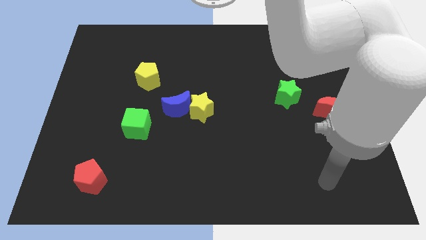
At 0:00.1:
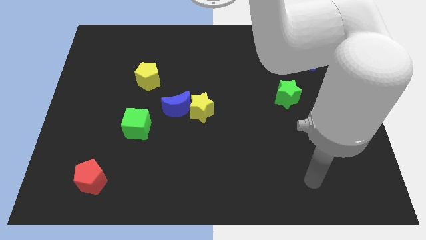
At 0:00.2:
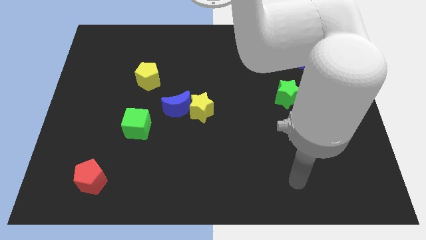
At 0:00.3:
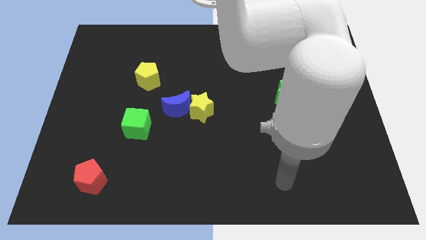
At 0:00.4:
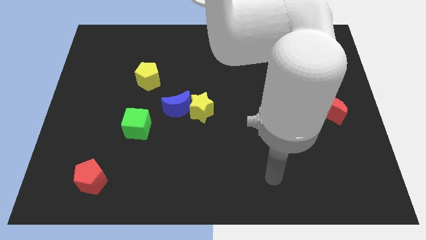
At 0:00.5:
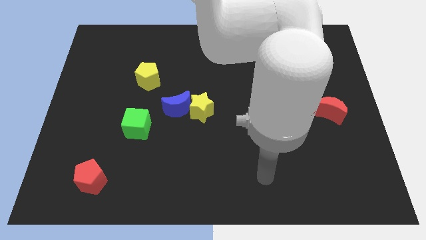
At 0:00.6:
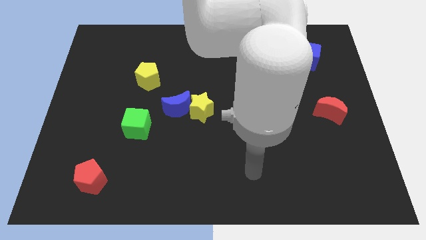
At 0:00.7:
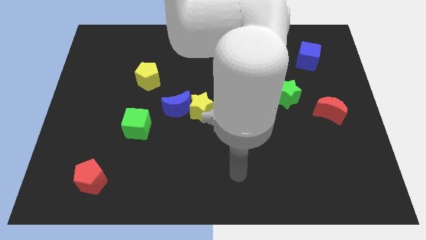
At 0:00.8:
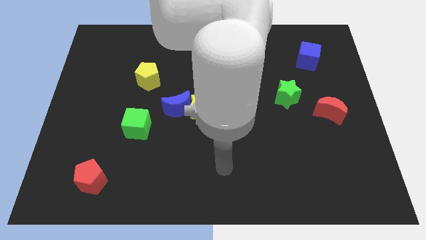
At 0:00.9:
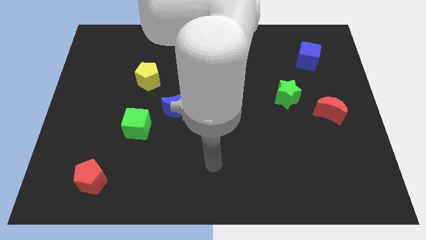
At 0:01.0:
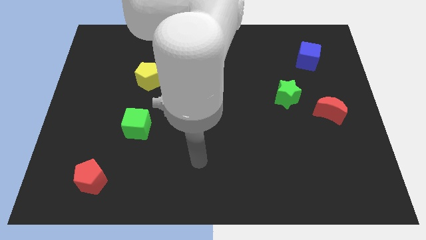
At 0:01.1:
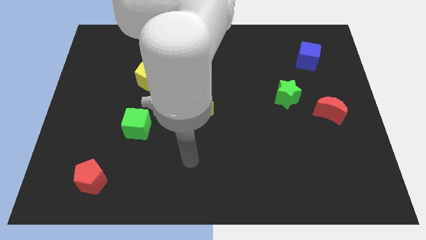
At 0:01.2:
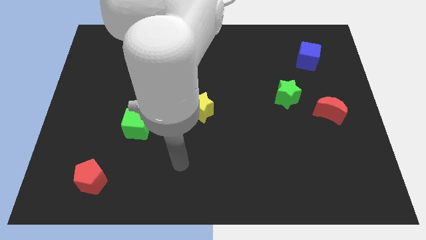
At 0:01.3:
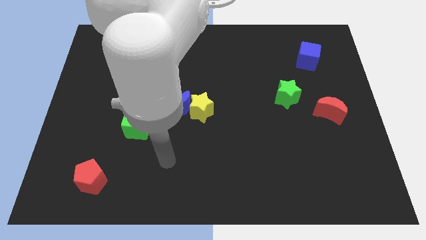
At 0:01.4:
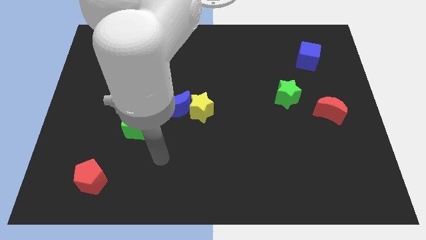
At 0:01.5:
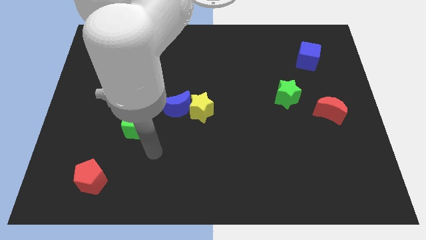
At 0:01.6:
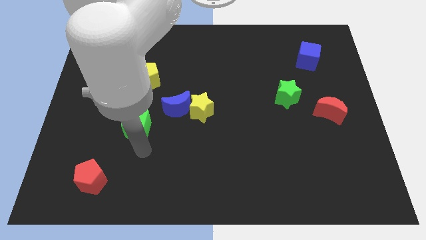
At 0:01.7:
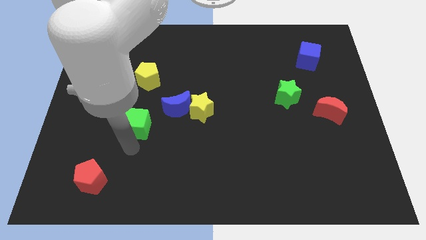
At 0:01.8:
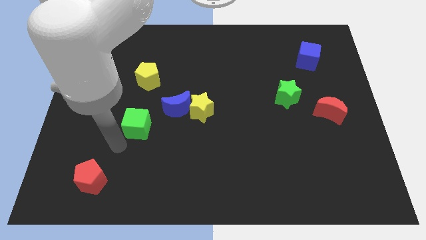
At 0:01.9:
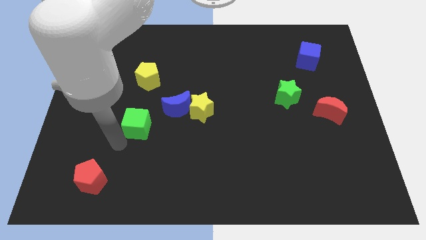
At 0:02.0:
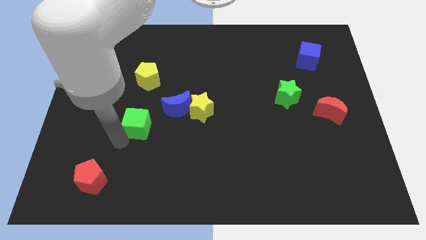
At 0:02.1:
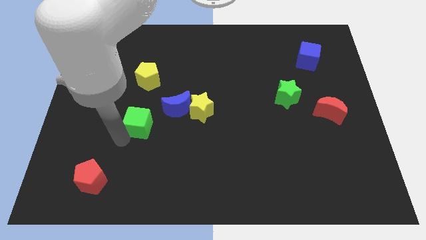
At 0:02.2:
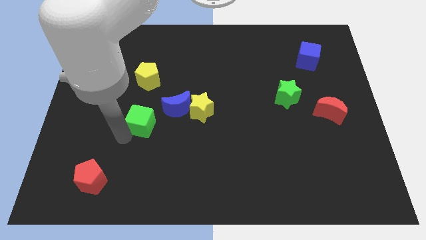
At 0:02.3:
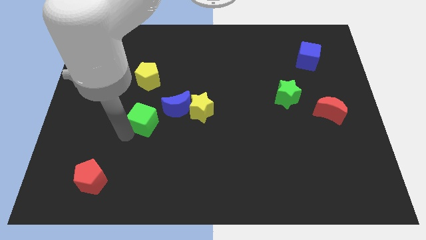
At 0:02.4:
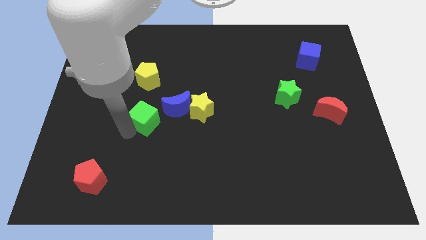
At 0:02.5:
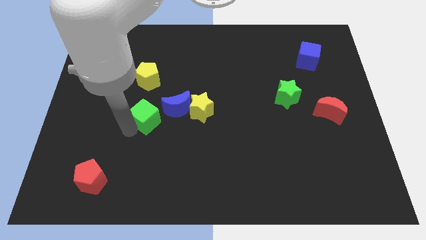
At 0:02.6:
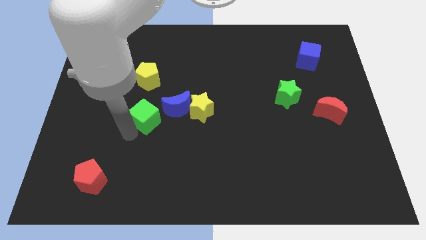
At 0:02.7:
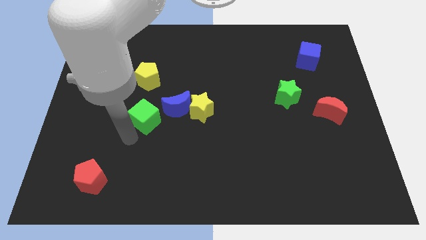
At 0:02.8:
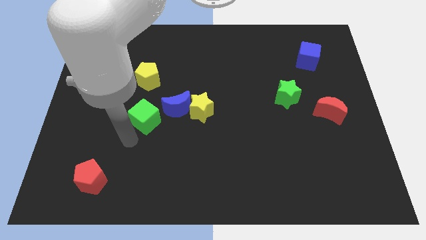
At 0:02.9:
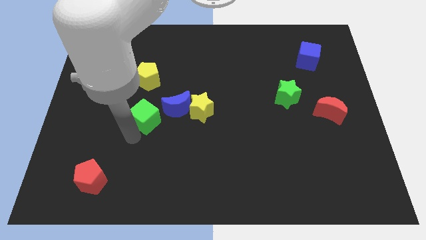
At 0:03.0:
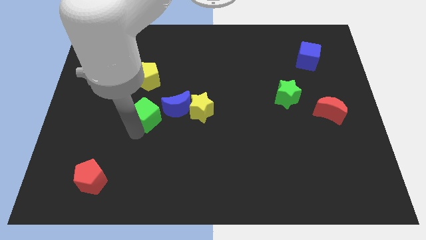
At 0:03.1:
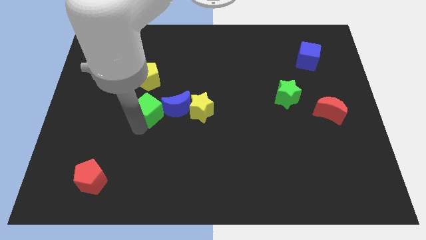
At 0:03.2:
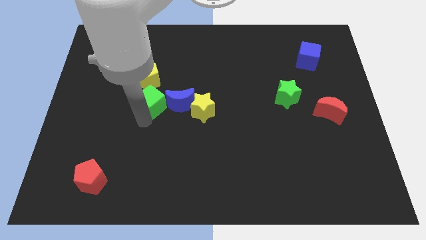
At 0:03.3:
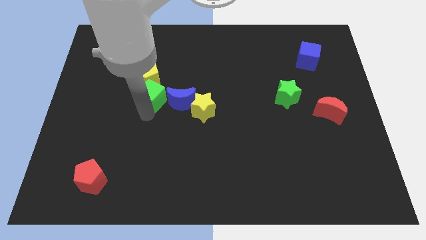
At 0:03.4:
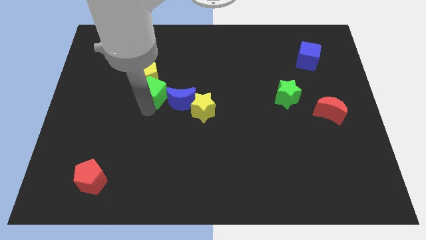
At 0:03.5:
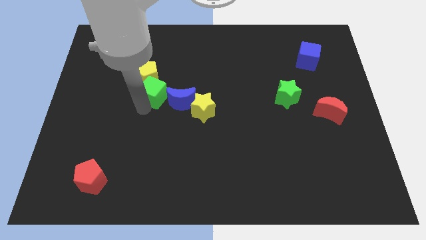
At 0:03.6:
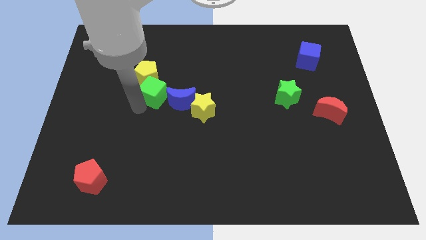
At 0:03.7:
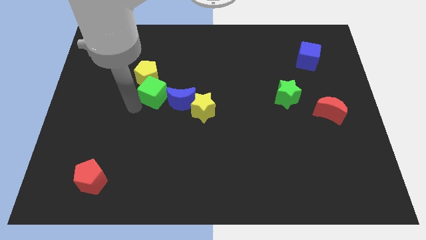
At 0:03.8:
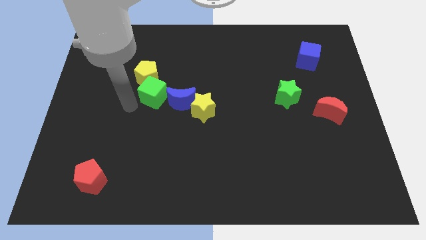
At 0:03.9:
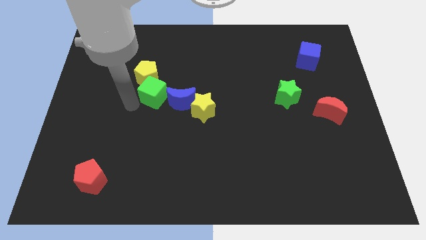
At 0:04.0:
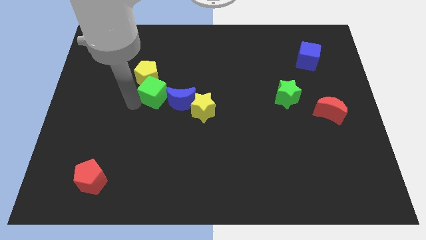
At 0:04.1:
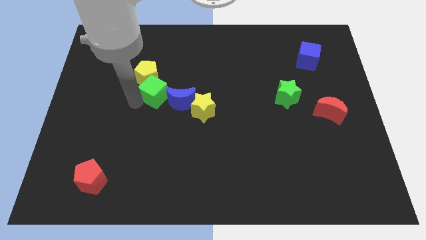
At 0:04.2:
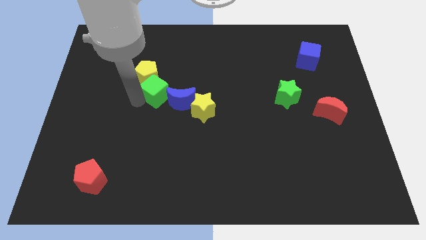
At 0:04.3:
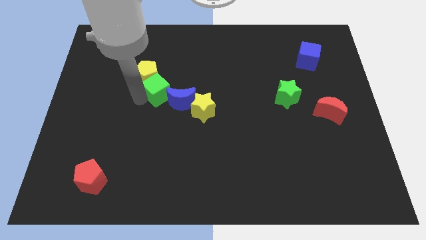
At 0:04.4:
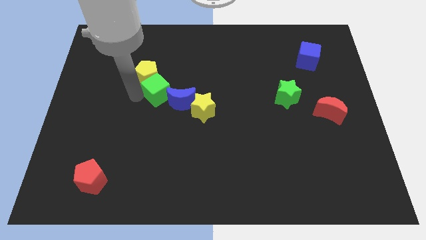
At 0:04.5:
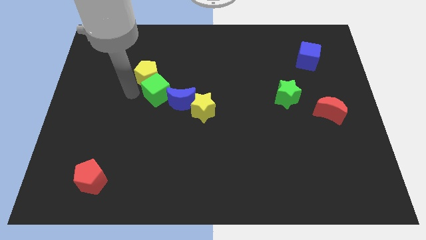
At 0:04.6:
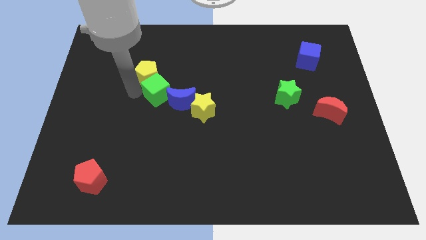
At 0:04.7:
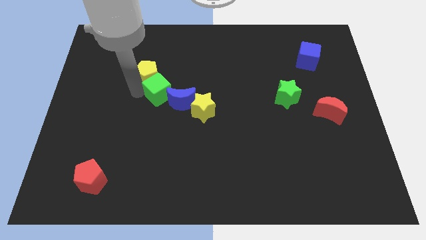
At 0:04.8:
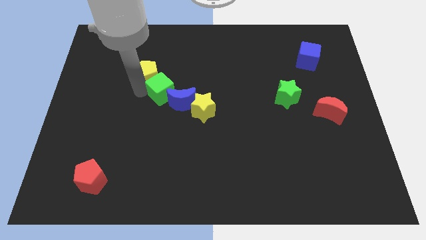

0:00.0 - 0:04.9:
put the green cube to the top left side of the yellow star

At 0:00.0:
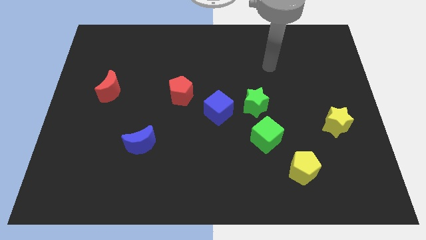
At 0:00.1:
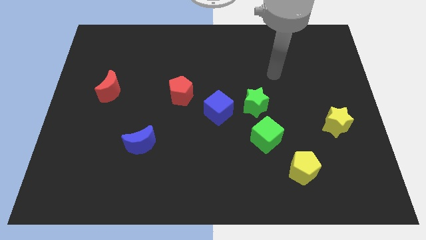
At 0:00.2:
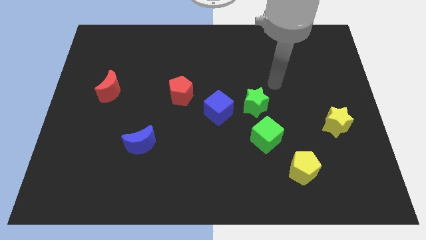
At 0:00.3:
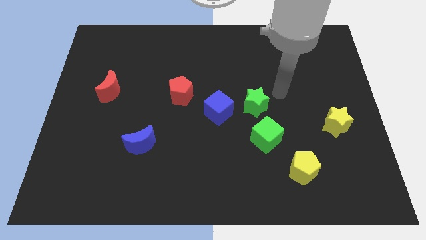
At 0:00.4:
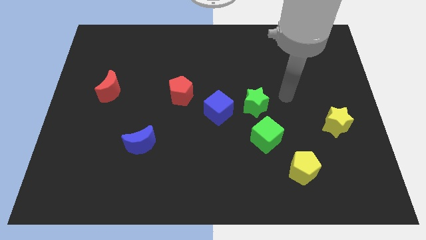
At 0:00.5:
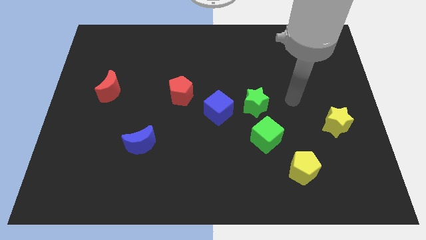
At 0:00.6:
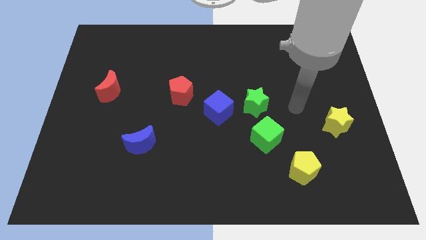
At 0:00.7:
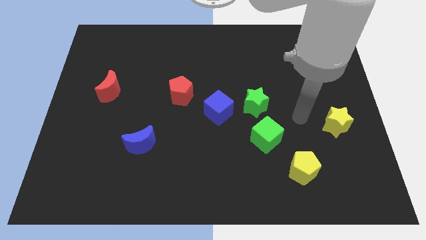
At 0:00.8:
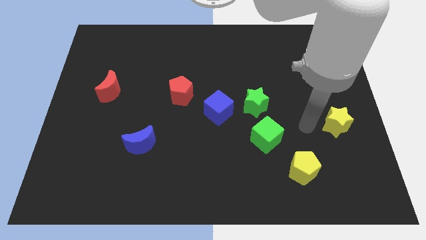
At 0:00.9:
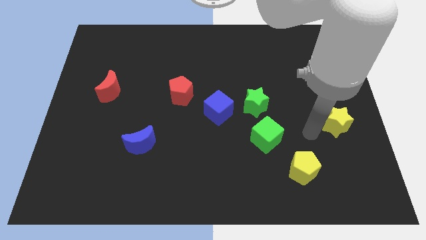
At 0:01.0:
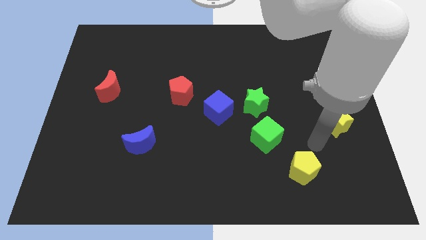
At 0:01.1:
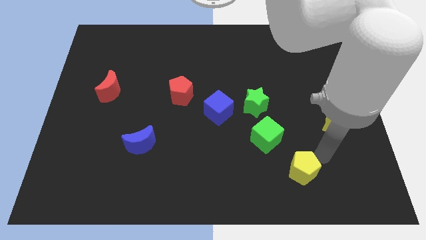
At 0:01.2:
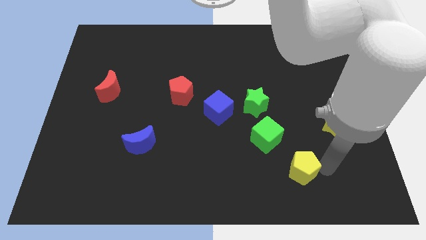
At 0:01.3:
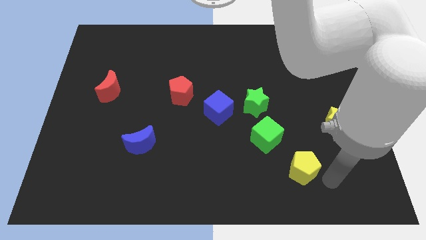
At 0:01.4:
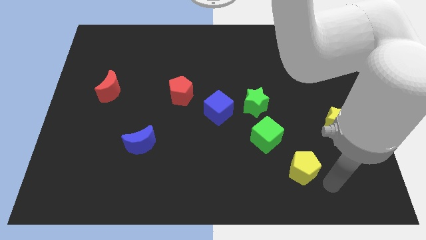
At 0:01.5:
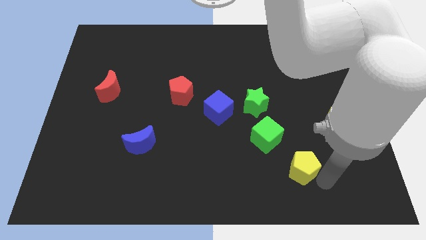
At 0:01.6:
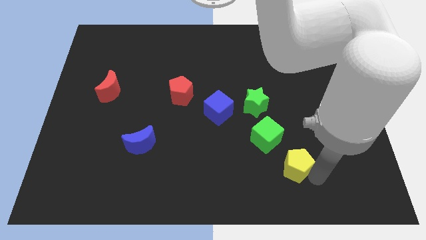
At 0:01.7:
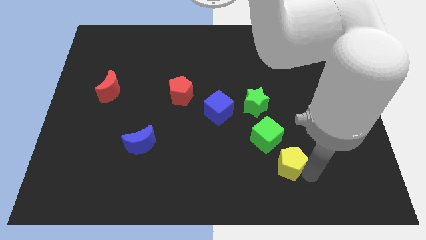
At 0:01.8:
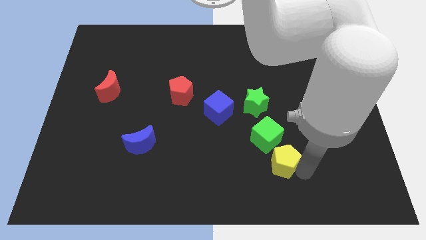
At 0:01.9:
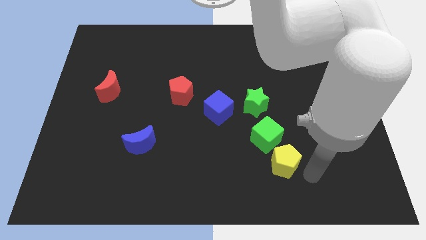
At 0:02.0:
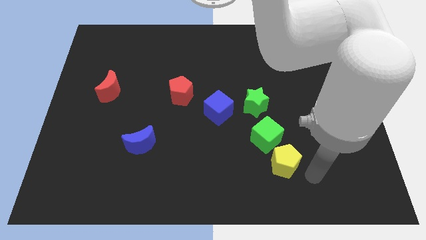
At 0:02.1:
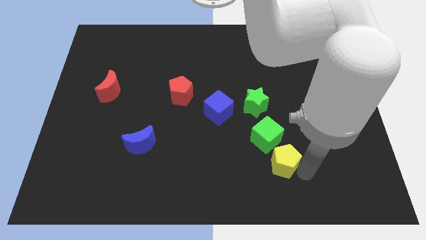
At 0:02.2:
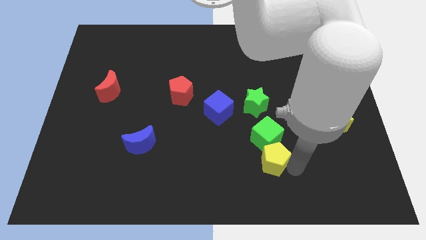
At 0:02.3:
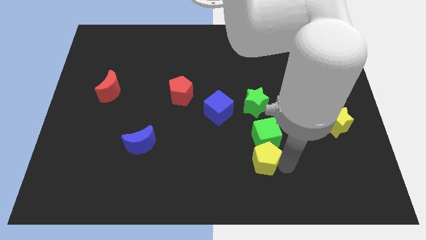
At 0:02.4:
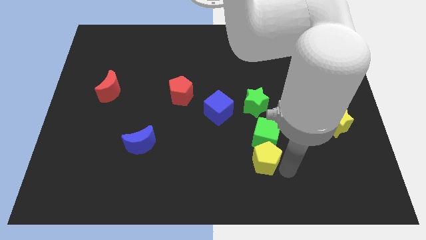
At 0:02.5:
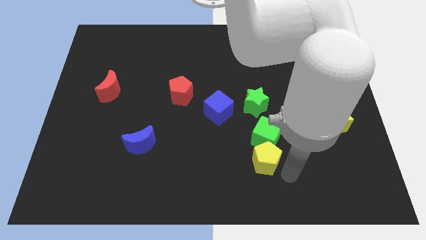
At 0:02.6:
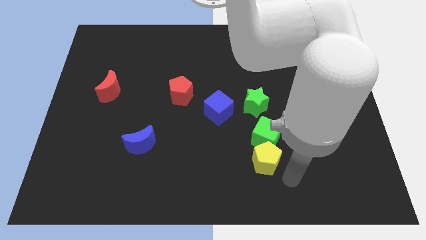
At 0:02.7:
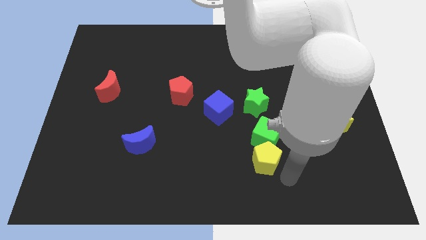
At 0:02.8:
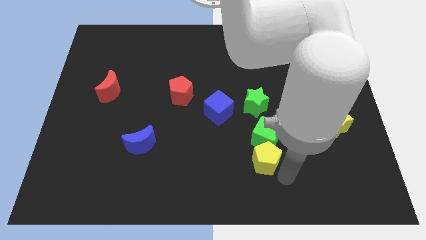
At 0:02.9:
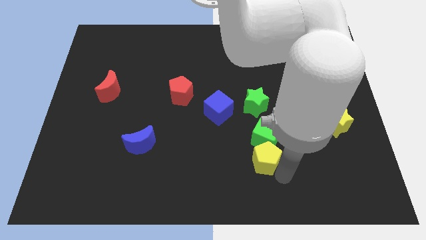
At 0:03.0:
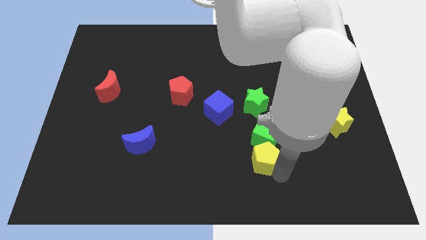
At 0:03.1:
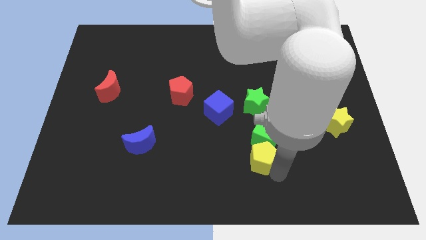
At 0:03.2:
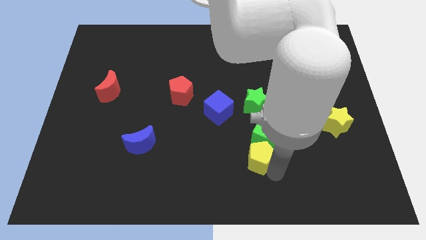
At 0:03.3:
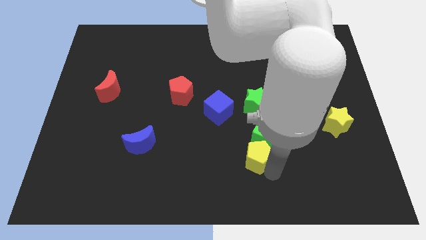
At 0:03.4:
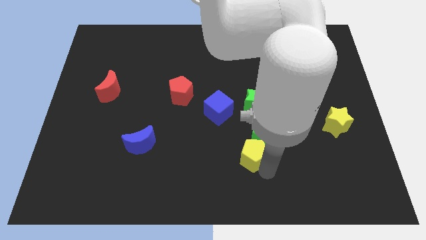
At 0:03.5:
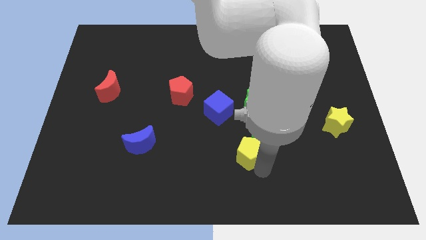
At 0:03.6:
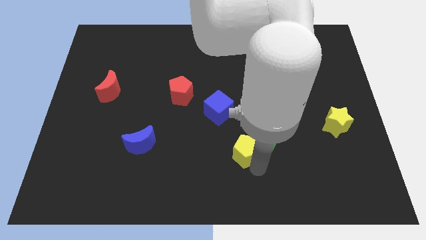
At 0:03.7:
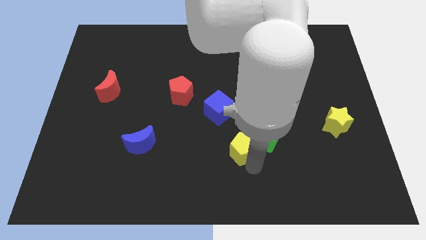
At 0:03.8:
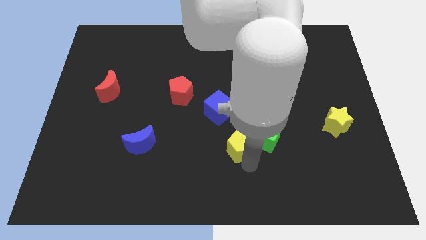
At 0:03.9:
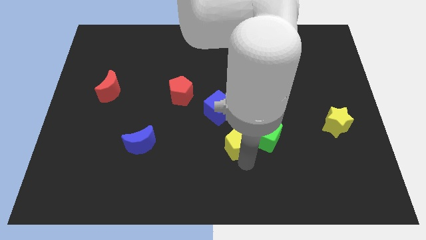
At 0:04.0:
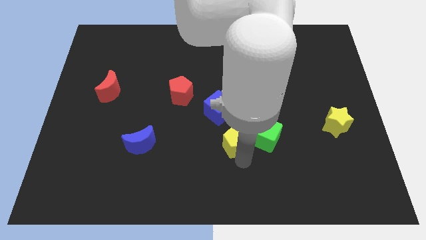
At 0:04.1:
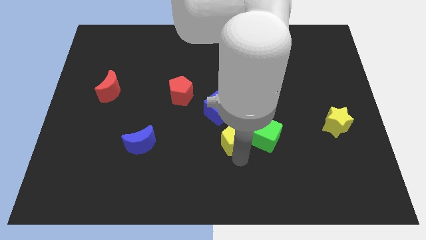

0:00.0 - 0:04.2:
slide the yellow pentagon diagonally down and to the left of the green star
